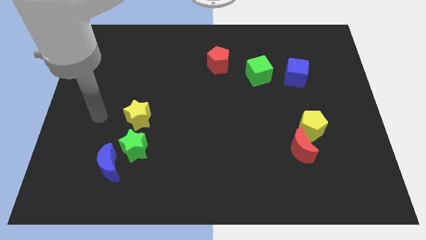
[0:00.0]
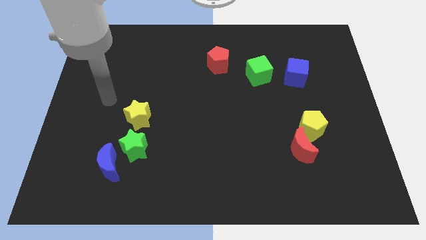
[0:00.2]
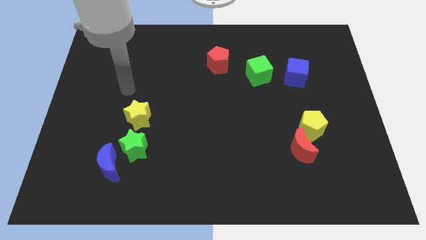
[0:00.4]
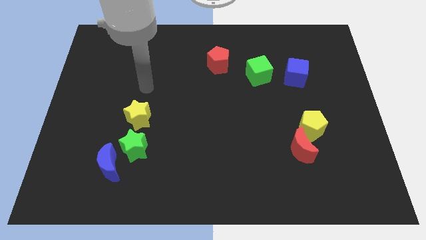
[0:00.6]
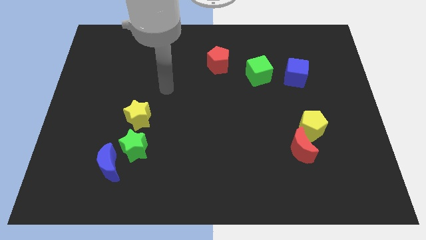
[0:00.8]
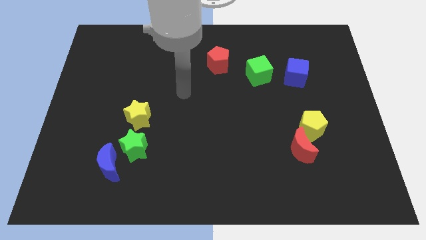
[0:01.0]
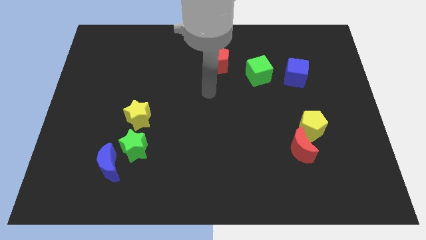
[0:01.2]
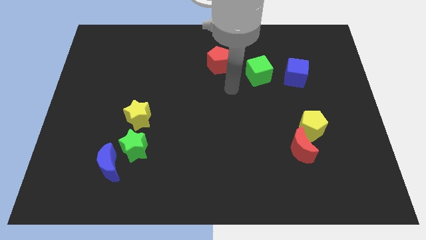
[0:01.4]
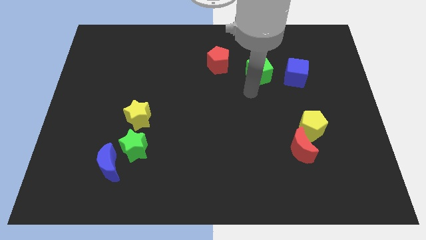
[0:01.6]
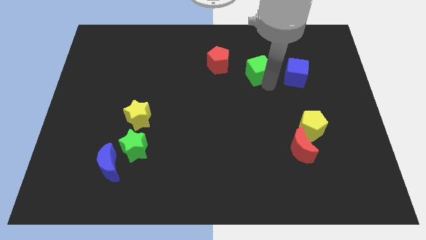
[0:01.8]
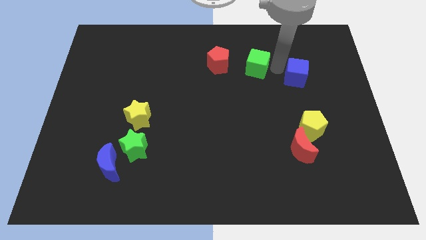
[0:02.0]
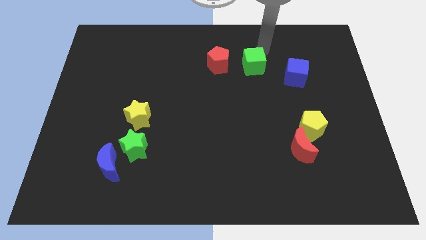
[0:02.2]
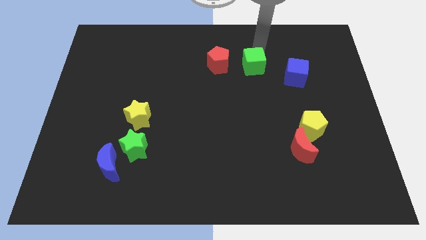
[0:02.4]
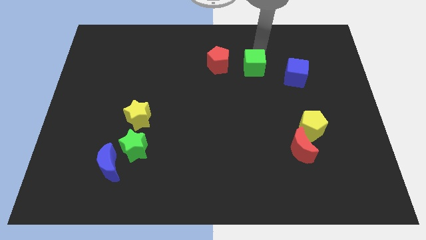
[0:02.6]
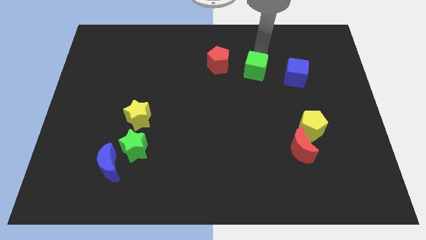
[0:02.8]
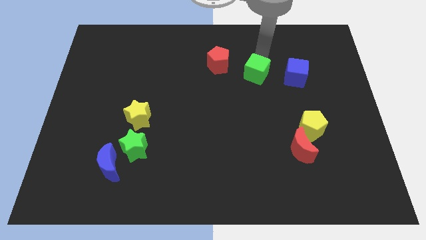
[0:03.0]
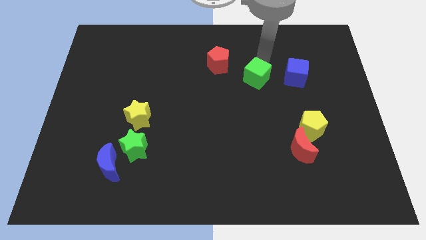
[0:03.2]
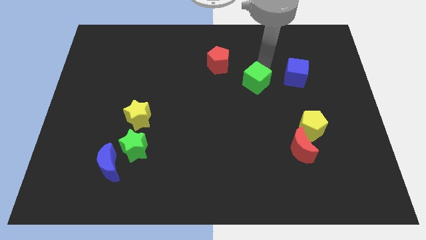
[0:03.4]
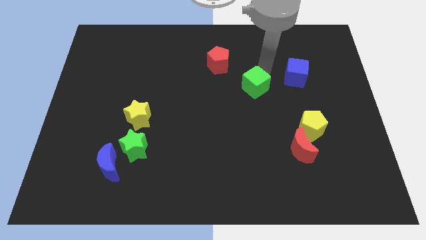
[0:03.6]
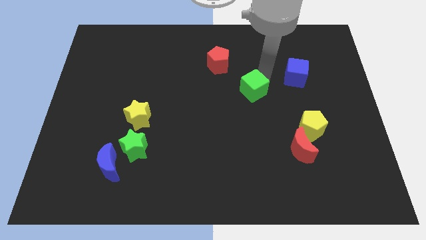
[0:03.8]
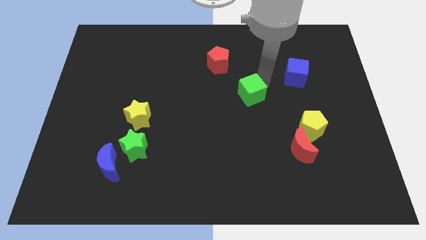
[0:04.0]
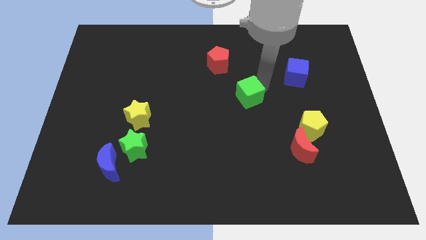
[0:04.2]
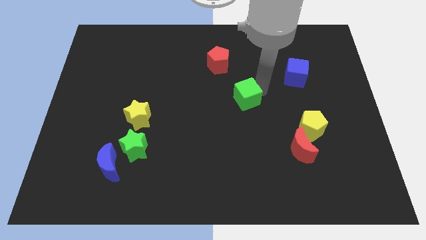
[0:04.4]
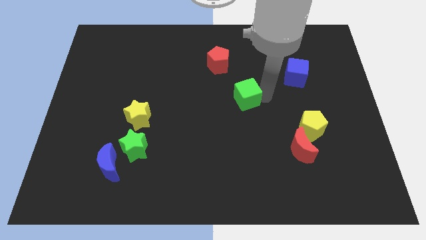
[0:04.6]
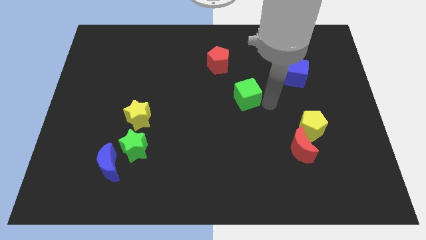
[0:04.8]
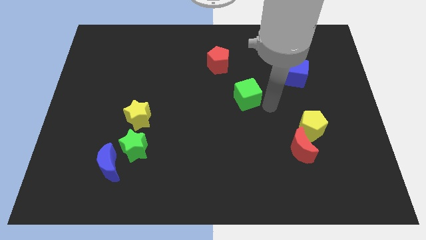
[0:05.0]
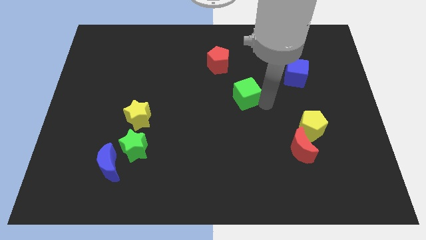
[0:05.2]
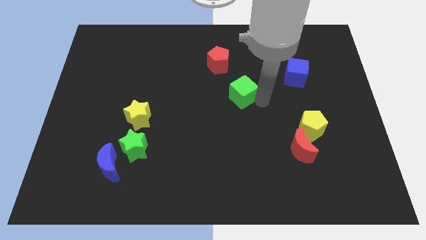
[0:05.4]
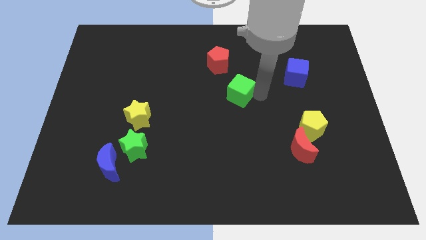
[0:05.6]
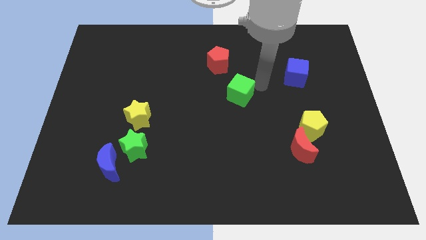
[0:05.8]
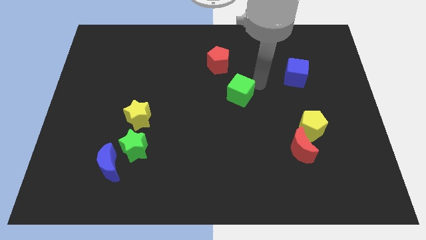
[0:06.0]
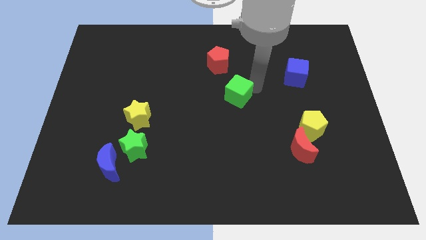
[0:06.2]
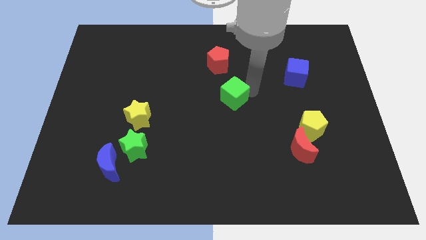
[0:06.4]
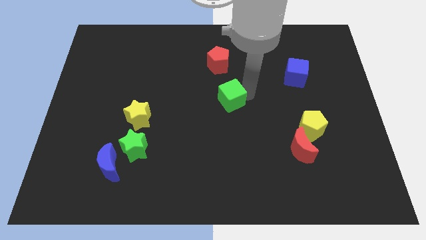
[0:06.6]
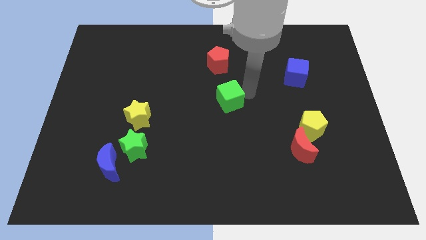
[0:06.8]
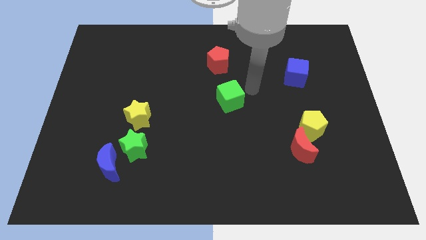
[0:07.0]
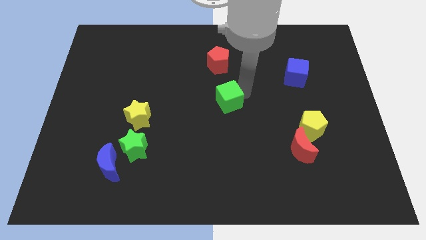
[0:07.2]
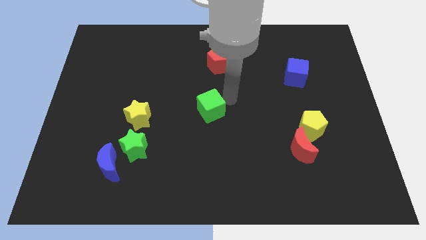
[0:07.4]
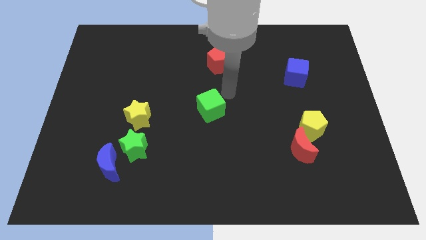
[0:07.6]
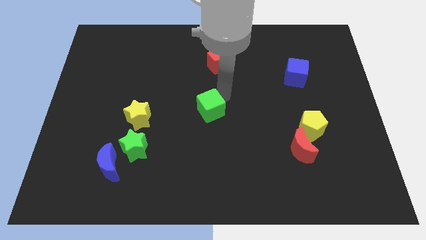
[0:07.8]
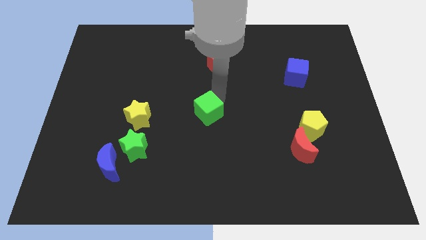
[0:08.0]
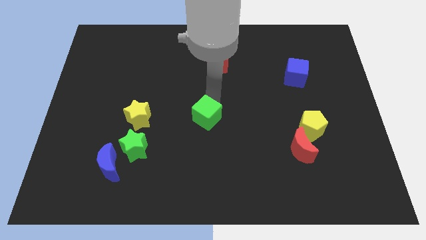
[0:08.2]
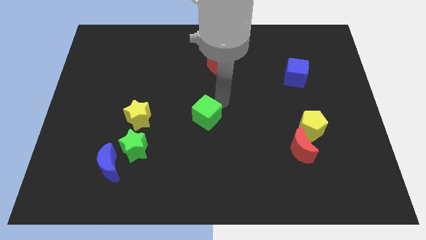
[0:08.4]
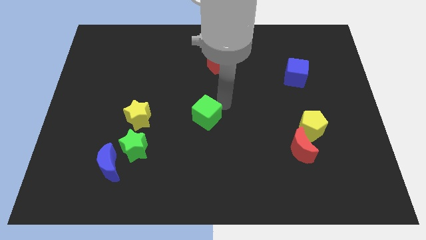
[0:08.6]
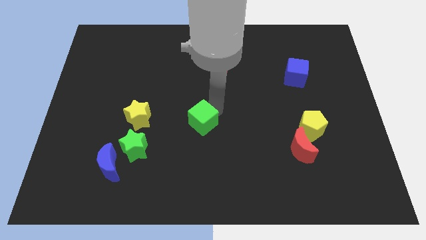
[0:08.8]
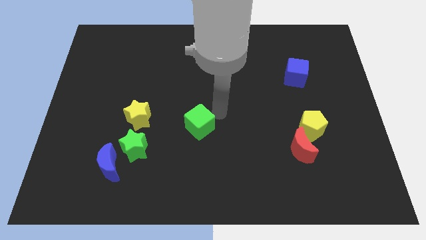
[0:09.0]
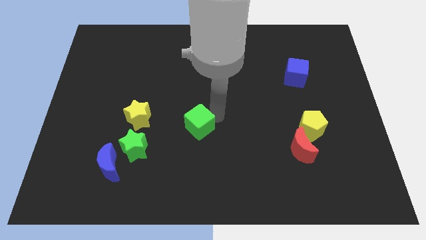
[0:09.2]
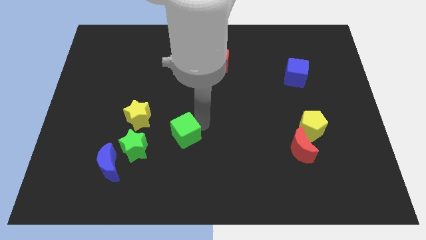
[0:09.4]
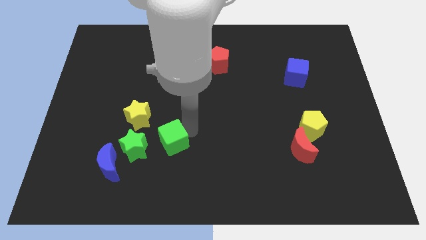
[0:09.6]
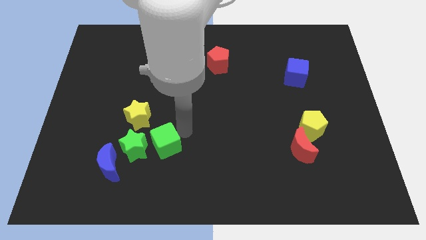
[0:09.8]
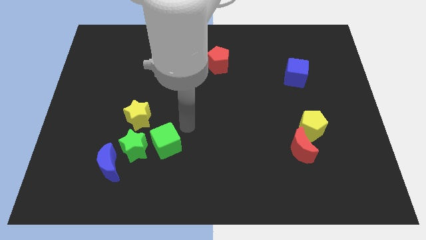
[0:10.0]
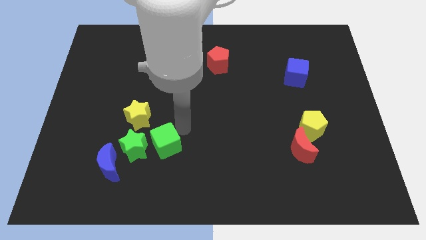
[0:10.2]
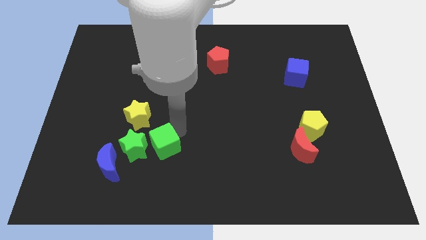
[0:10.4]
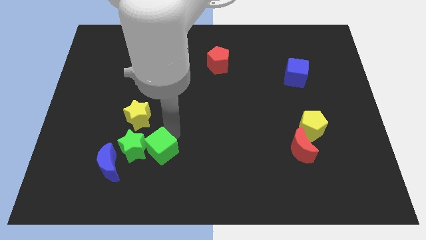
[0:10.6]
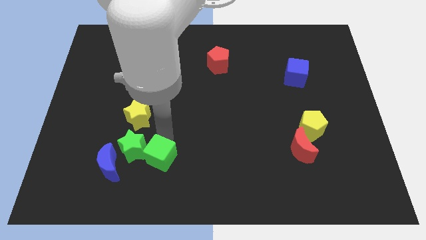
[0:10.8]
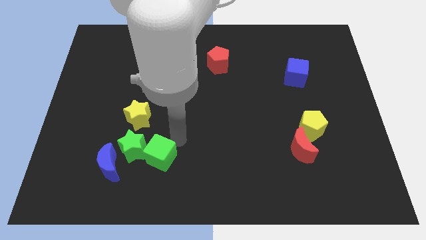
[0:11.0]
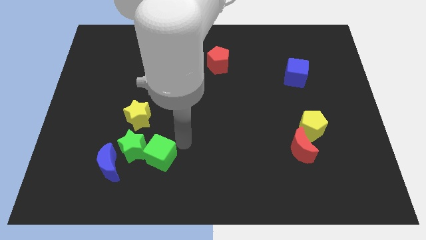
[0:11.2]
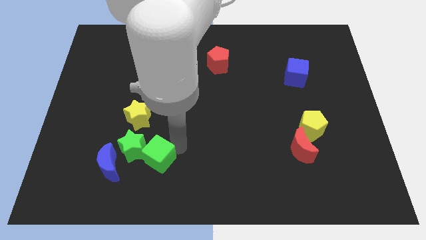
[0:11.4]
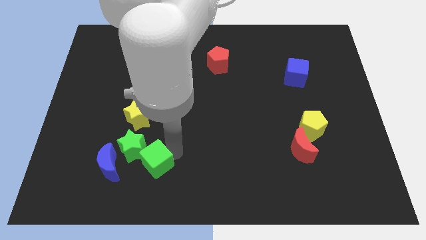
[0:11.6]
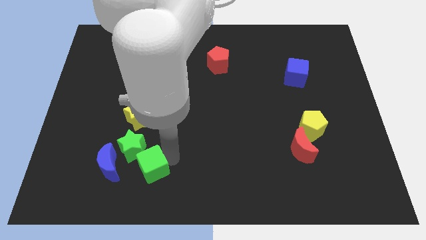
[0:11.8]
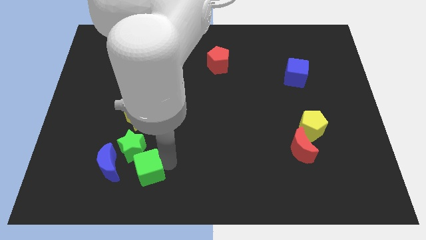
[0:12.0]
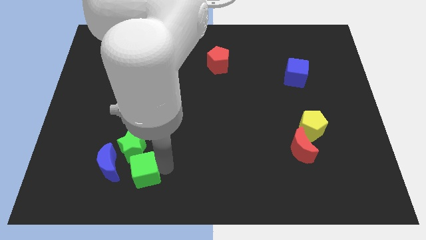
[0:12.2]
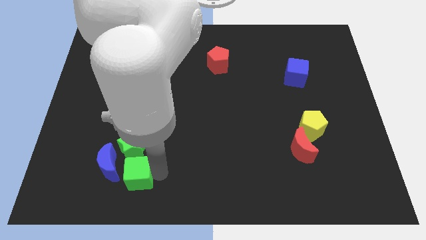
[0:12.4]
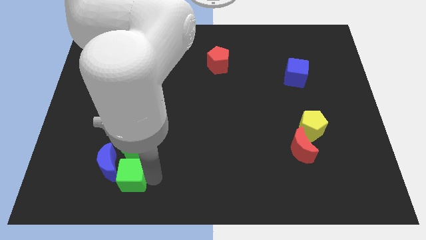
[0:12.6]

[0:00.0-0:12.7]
slide the green cube next to the blue moon

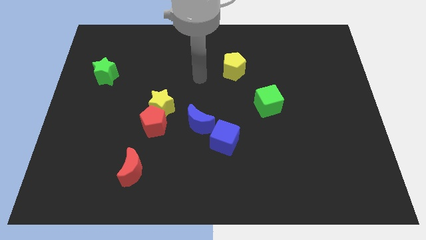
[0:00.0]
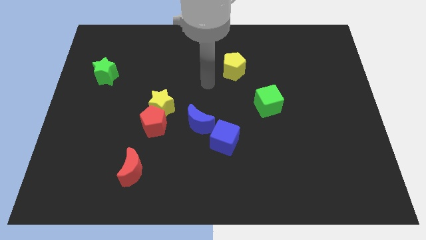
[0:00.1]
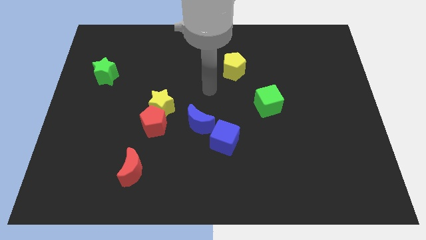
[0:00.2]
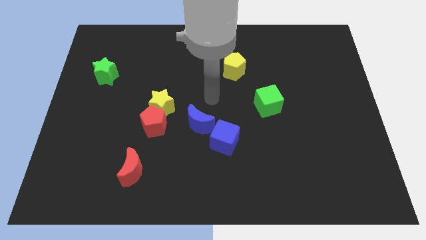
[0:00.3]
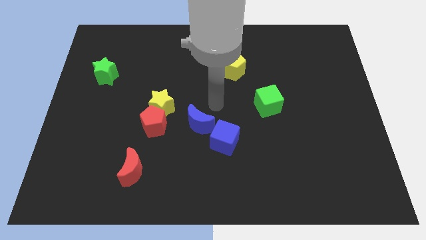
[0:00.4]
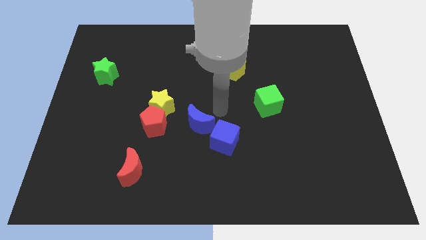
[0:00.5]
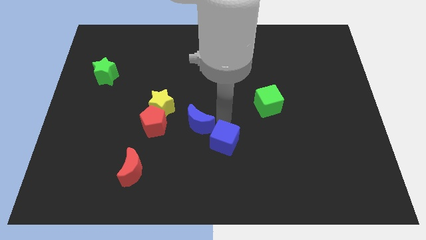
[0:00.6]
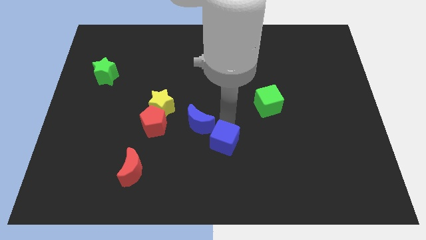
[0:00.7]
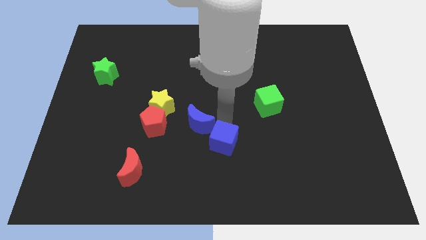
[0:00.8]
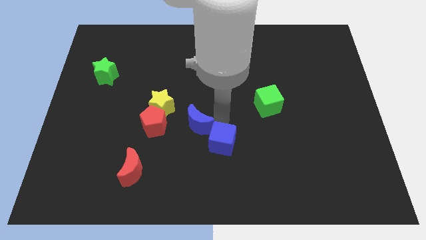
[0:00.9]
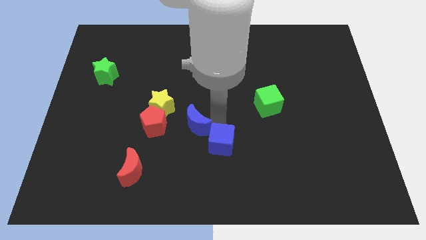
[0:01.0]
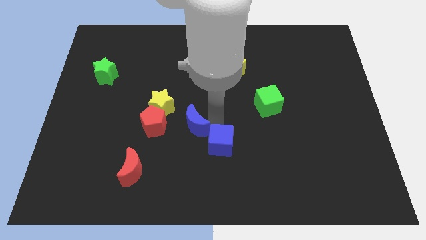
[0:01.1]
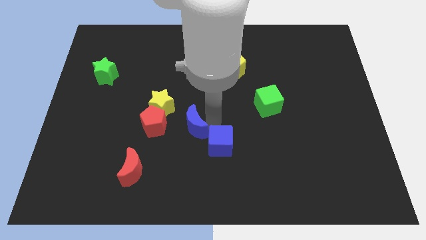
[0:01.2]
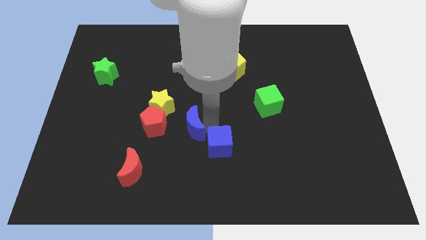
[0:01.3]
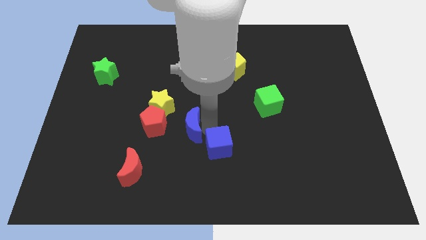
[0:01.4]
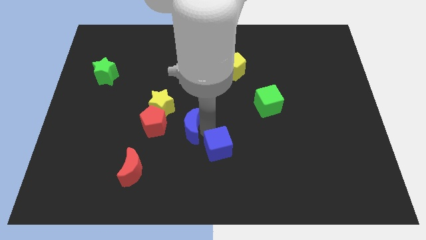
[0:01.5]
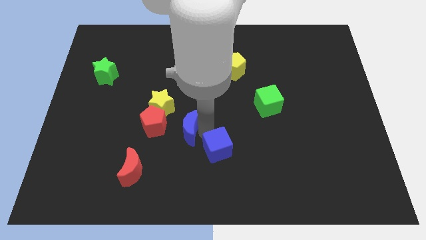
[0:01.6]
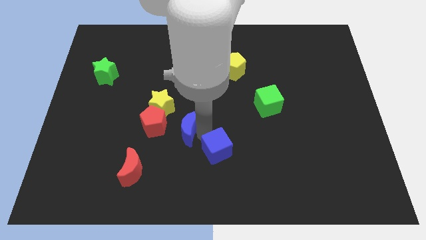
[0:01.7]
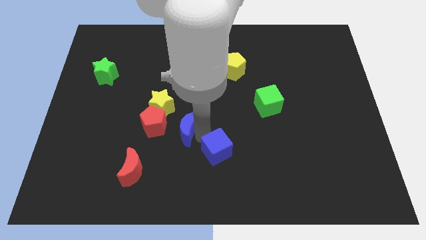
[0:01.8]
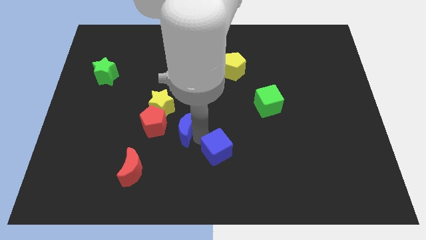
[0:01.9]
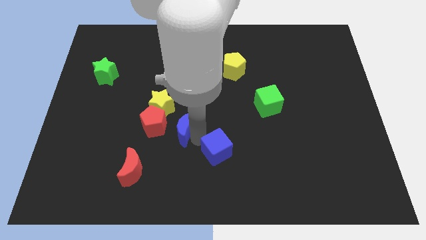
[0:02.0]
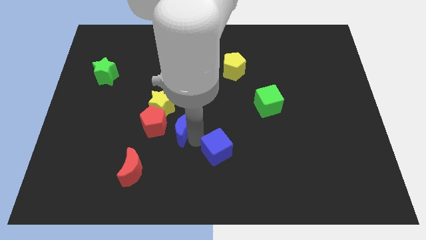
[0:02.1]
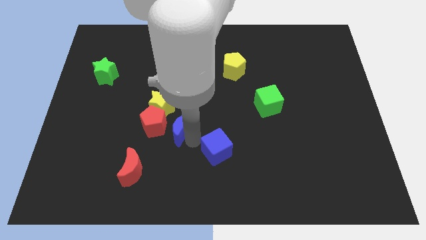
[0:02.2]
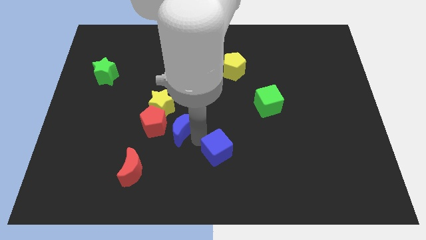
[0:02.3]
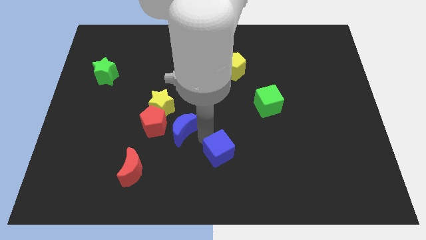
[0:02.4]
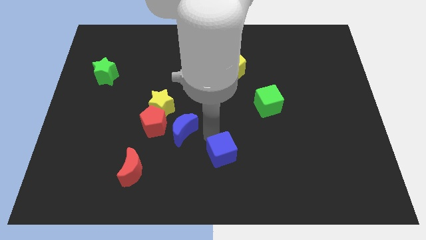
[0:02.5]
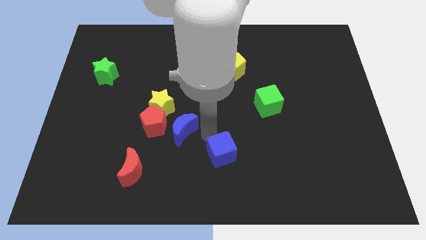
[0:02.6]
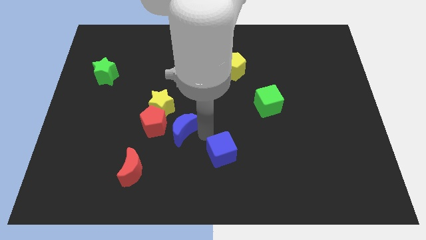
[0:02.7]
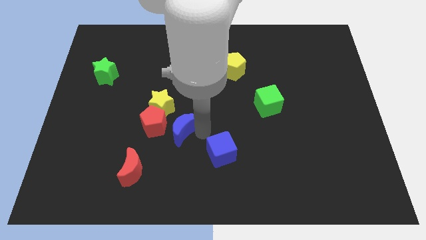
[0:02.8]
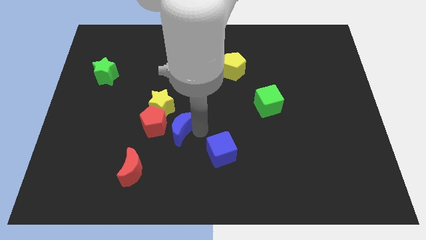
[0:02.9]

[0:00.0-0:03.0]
slide the blue moon next to the red pentagon
